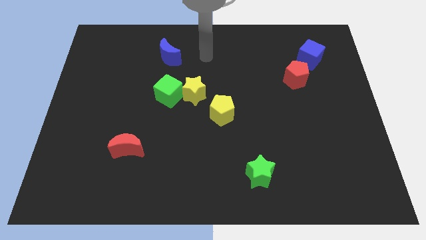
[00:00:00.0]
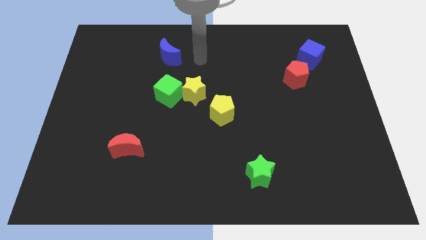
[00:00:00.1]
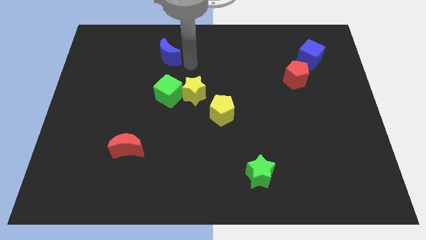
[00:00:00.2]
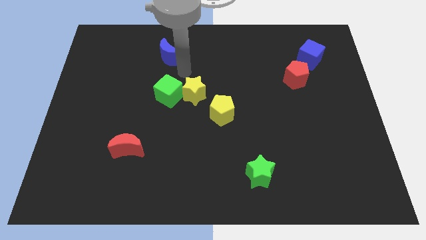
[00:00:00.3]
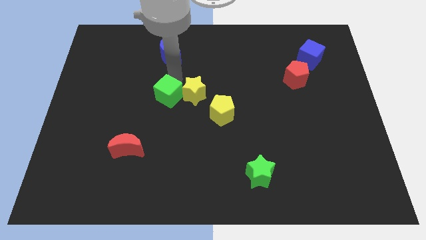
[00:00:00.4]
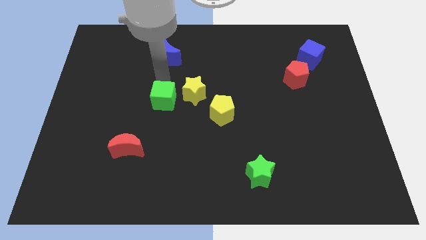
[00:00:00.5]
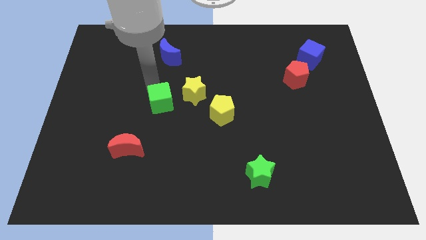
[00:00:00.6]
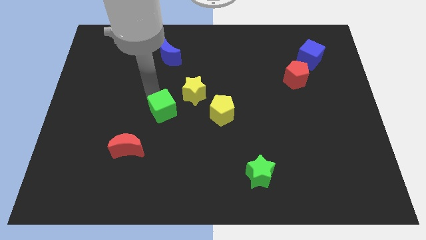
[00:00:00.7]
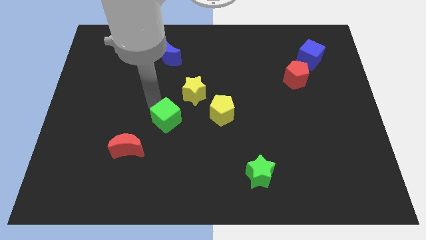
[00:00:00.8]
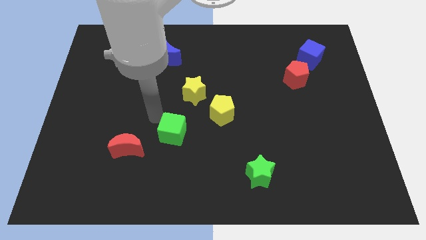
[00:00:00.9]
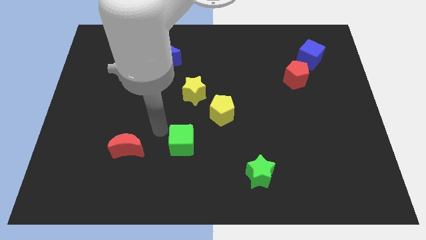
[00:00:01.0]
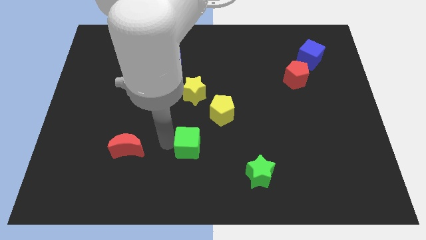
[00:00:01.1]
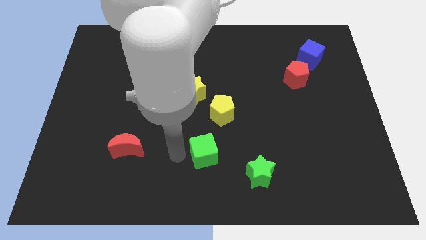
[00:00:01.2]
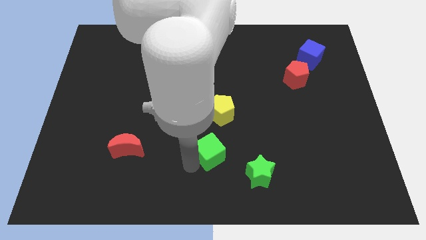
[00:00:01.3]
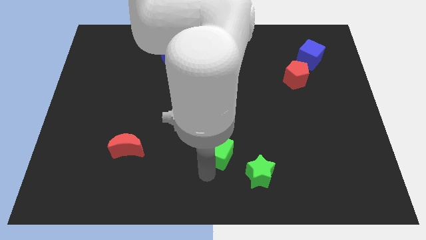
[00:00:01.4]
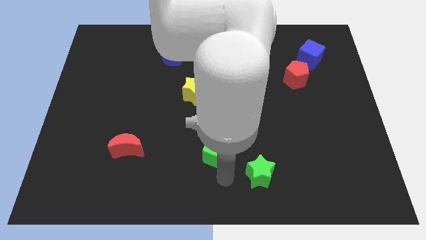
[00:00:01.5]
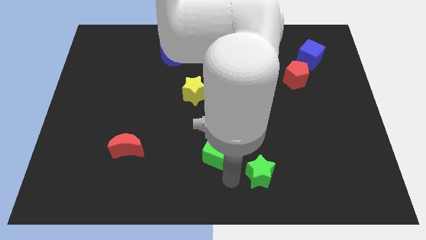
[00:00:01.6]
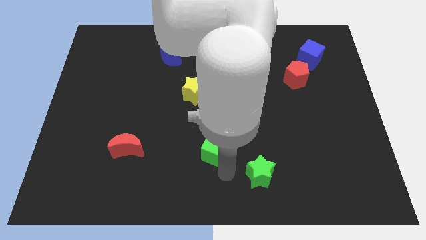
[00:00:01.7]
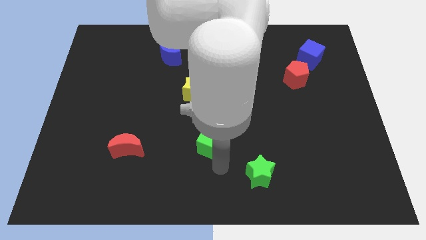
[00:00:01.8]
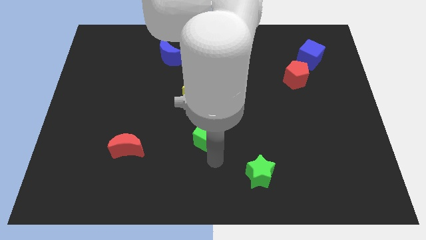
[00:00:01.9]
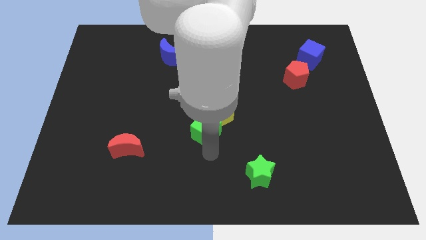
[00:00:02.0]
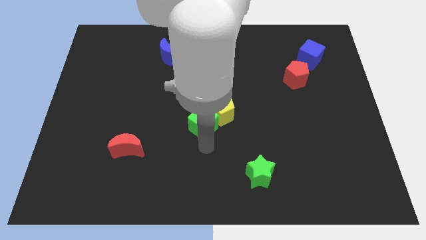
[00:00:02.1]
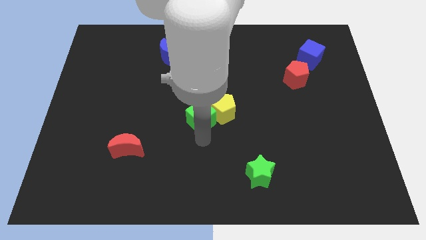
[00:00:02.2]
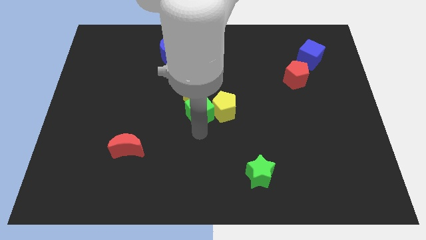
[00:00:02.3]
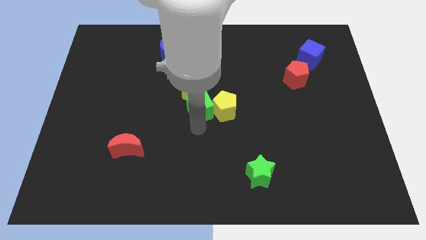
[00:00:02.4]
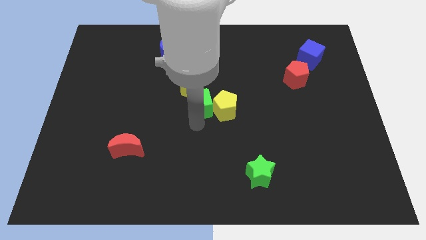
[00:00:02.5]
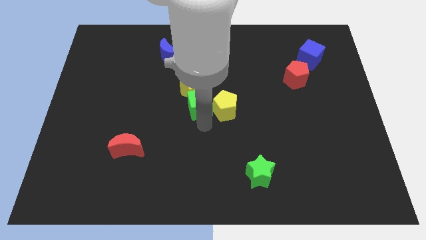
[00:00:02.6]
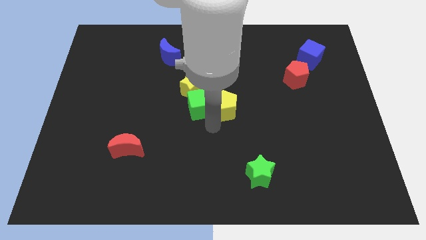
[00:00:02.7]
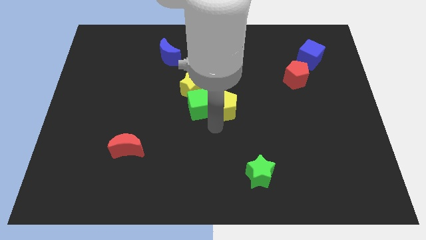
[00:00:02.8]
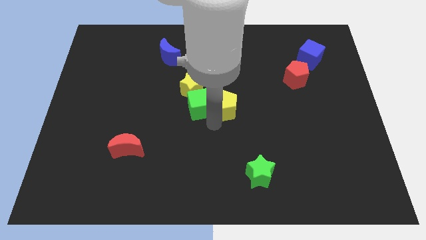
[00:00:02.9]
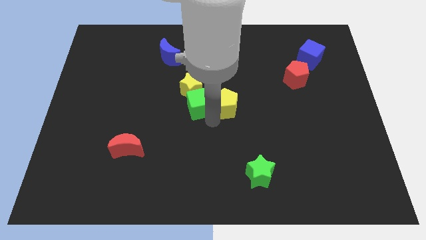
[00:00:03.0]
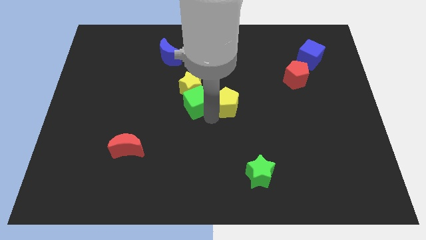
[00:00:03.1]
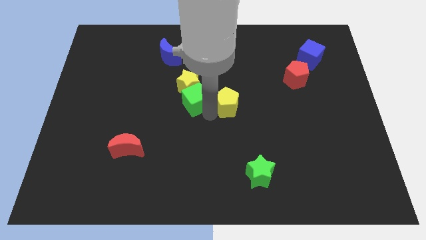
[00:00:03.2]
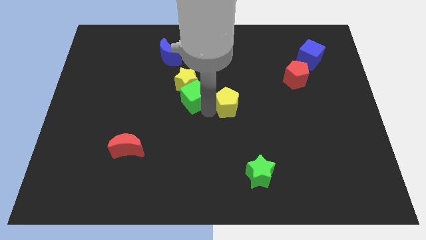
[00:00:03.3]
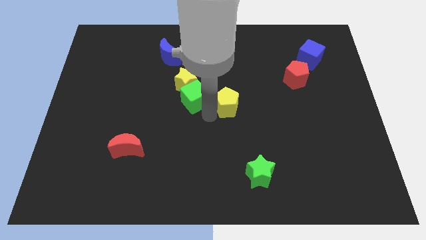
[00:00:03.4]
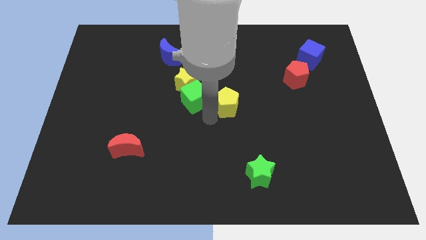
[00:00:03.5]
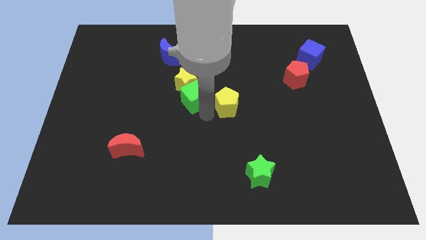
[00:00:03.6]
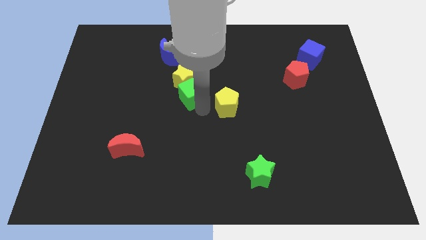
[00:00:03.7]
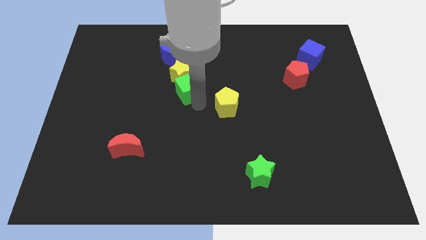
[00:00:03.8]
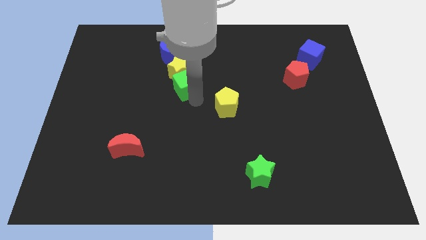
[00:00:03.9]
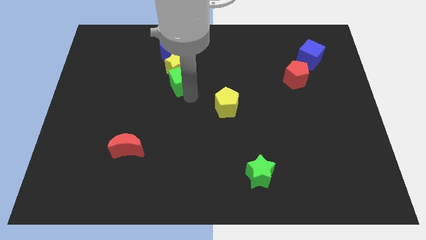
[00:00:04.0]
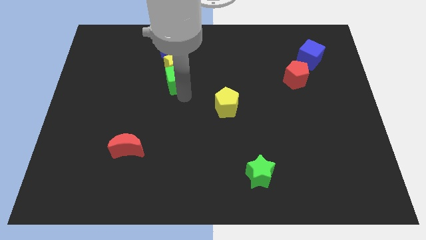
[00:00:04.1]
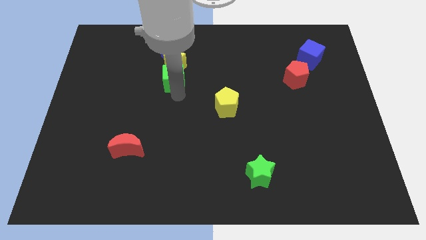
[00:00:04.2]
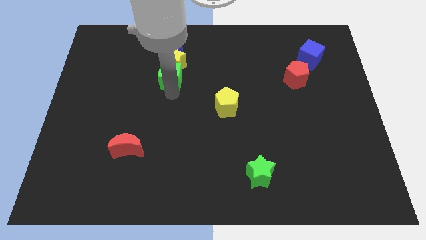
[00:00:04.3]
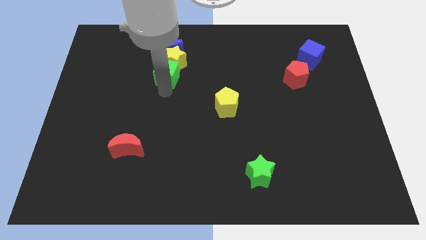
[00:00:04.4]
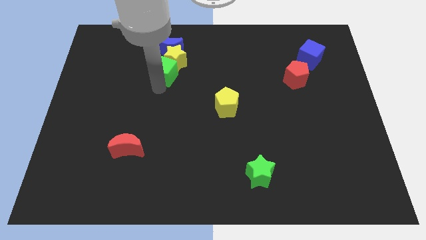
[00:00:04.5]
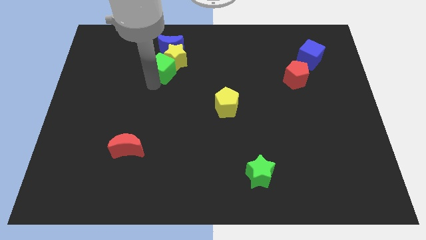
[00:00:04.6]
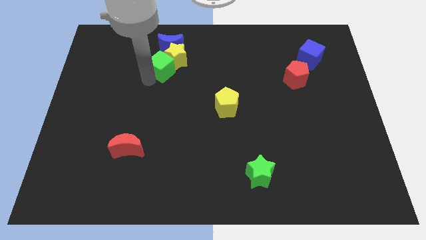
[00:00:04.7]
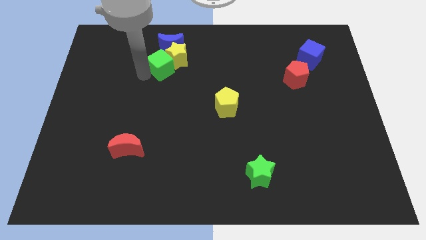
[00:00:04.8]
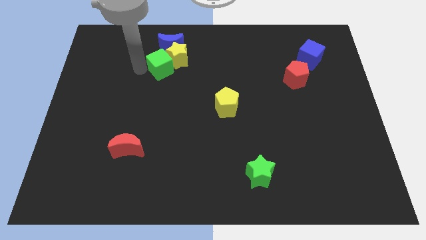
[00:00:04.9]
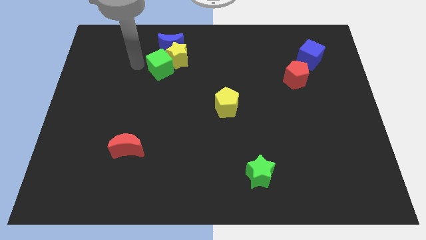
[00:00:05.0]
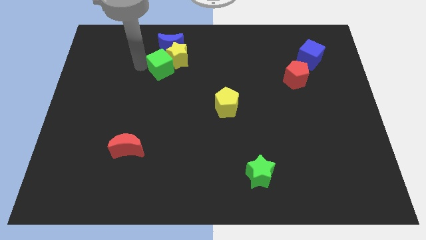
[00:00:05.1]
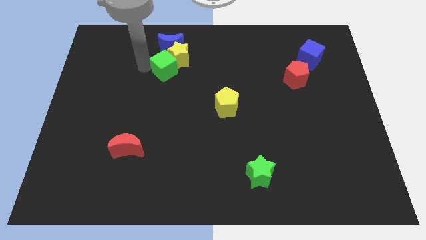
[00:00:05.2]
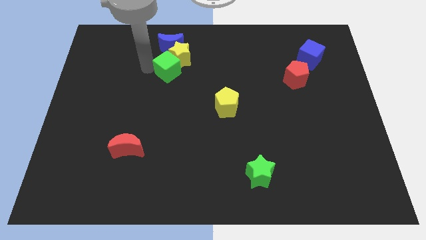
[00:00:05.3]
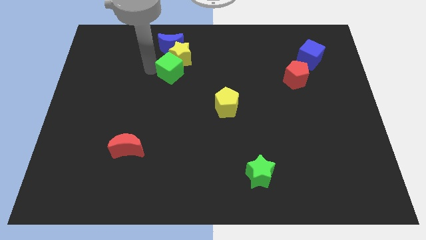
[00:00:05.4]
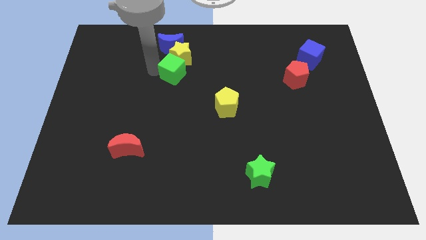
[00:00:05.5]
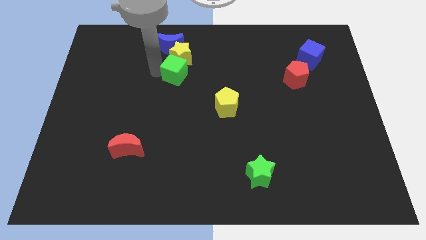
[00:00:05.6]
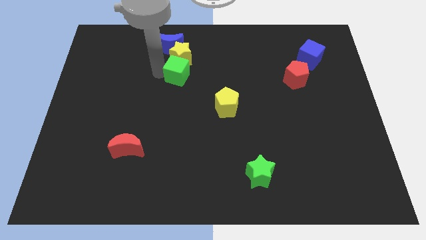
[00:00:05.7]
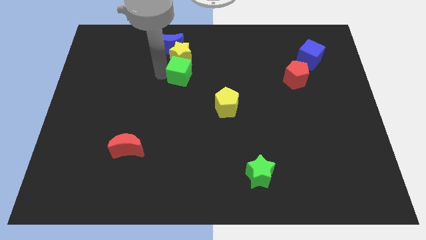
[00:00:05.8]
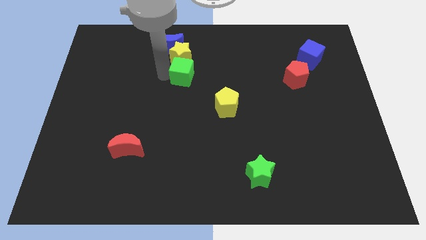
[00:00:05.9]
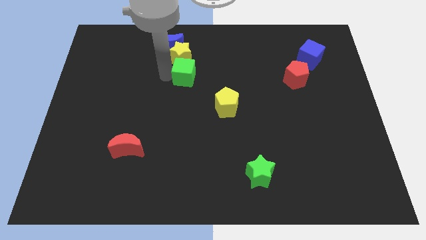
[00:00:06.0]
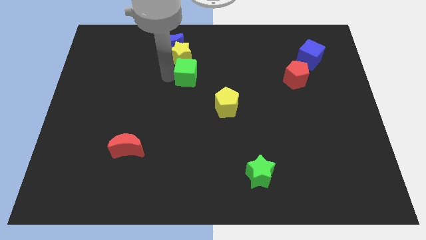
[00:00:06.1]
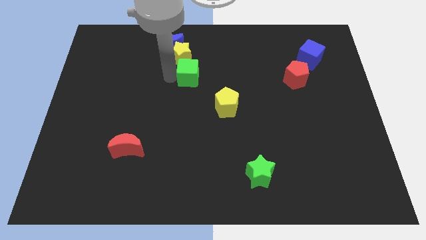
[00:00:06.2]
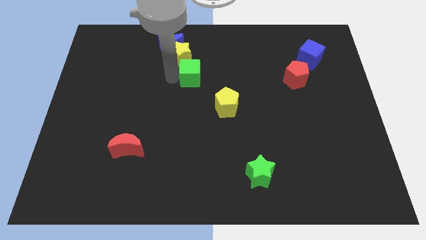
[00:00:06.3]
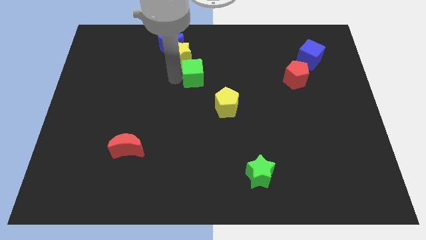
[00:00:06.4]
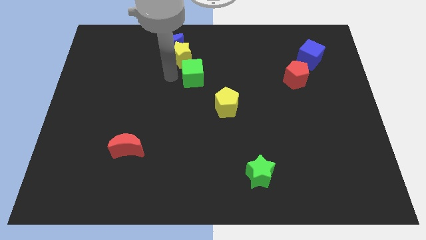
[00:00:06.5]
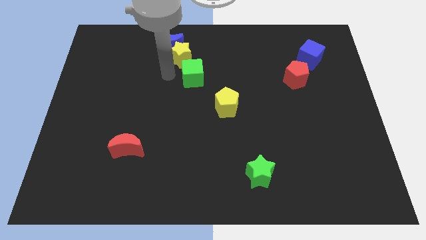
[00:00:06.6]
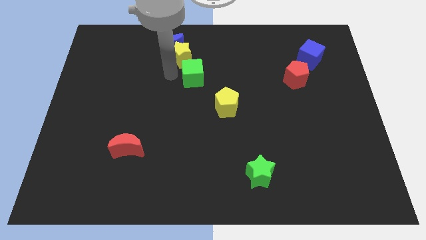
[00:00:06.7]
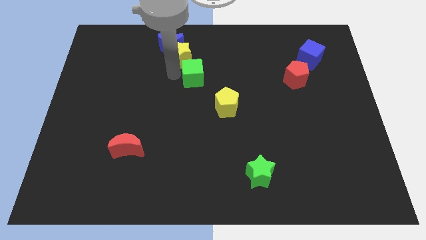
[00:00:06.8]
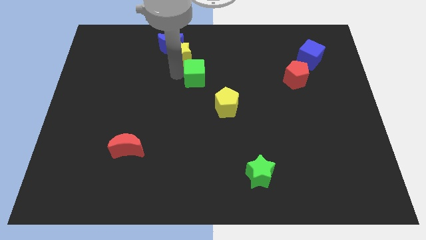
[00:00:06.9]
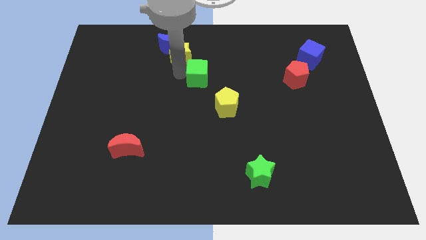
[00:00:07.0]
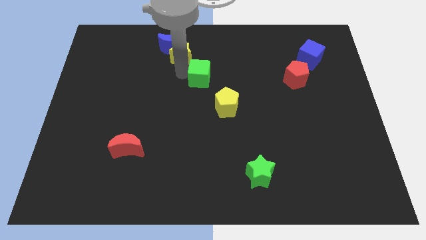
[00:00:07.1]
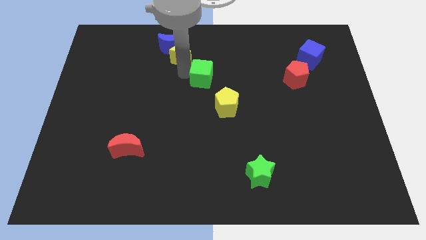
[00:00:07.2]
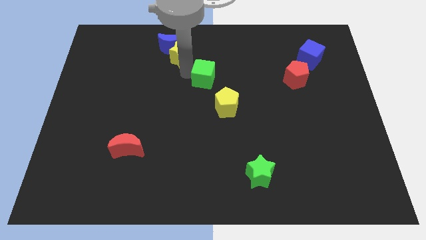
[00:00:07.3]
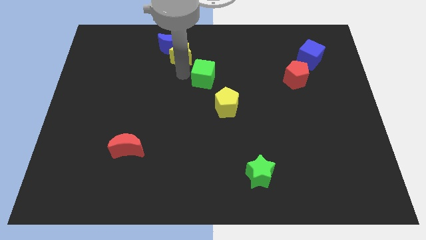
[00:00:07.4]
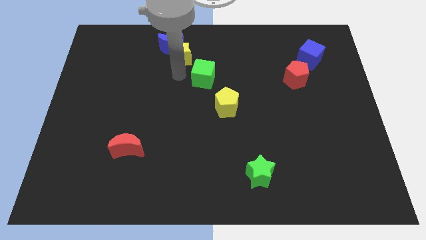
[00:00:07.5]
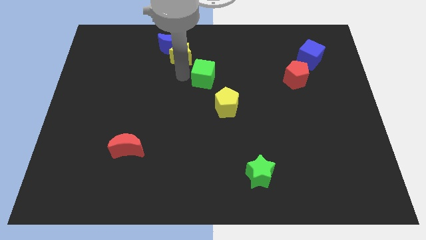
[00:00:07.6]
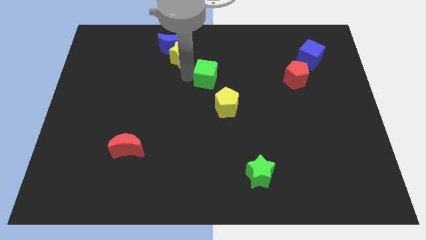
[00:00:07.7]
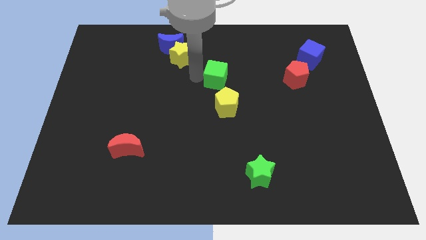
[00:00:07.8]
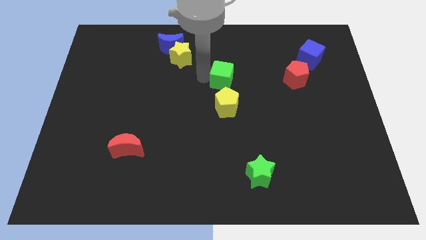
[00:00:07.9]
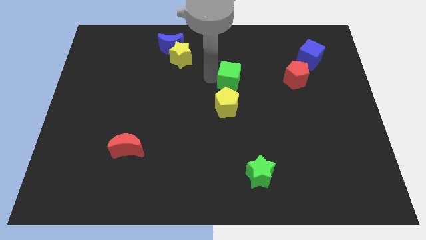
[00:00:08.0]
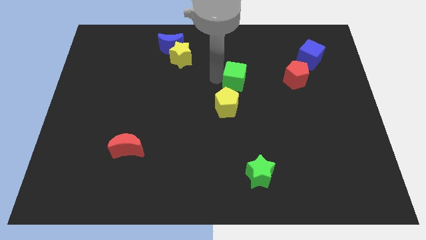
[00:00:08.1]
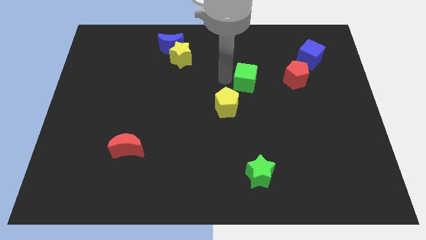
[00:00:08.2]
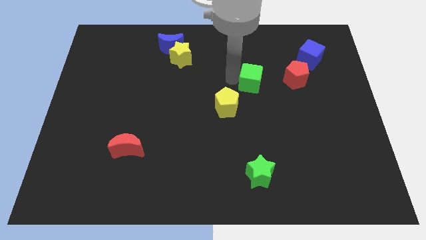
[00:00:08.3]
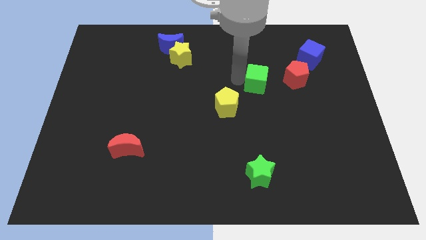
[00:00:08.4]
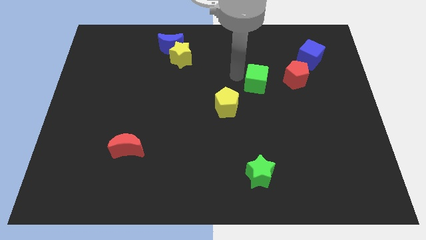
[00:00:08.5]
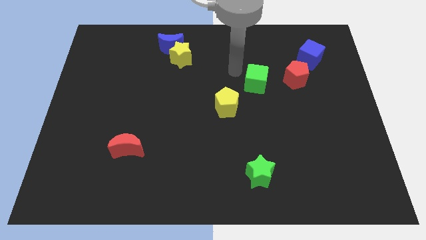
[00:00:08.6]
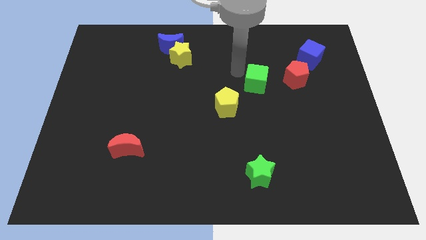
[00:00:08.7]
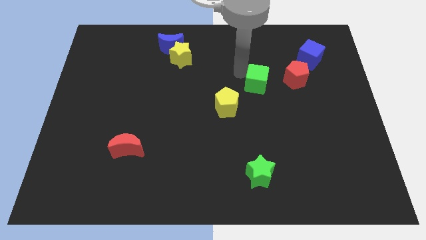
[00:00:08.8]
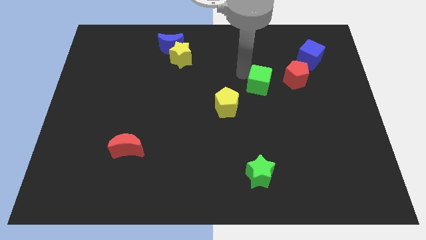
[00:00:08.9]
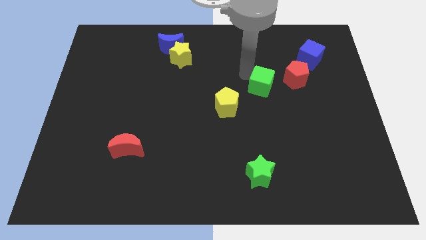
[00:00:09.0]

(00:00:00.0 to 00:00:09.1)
push the green cube to the bottom left of the red pentagon
